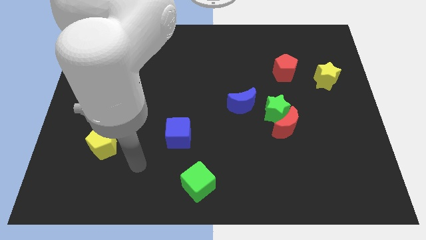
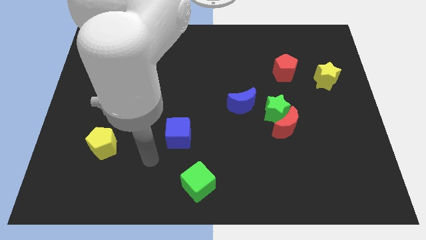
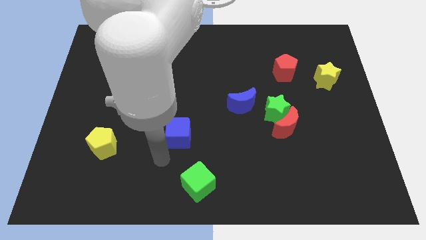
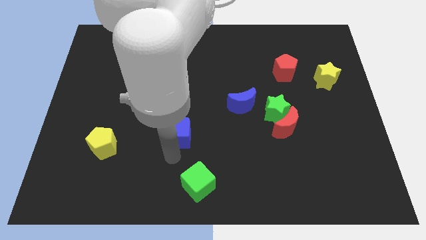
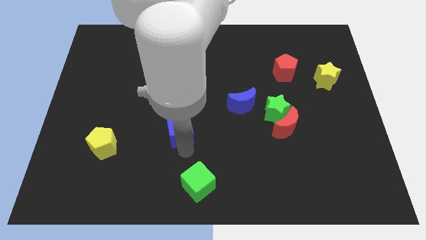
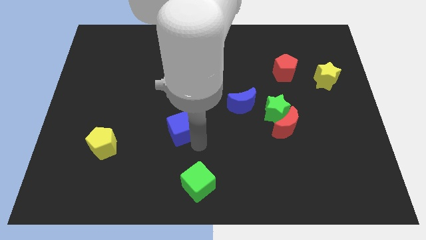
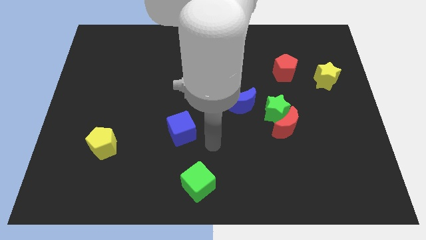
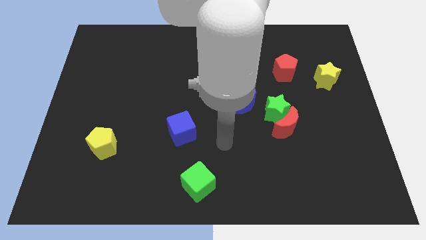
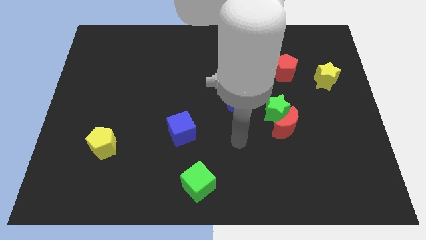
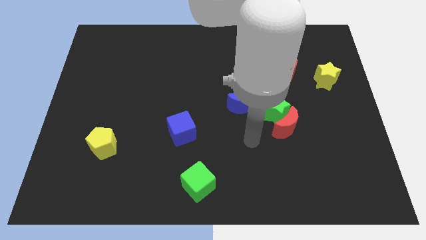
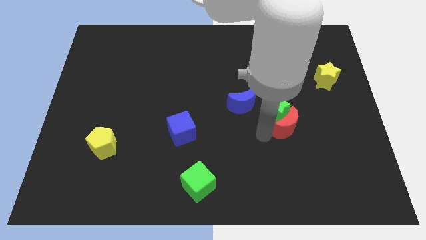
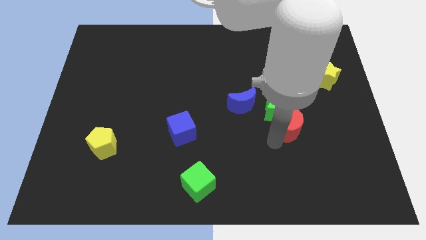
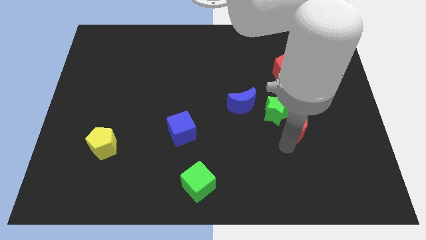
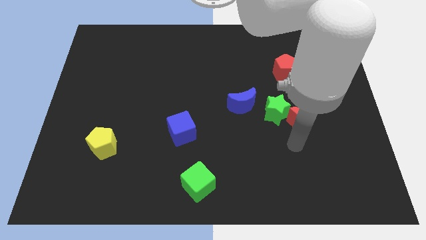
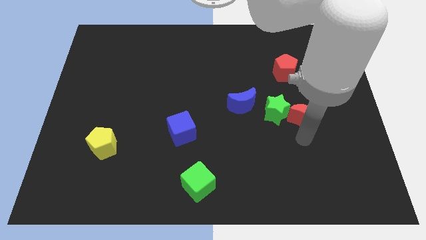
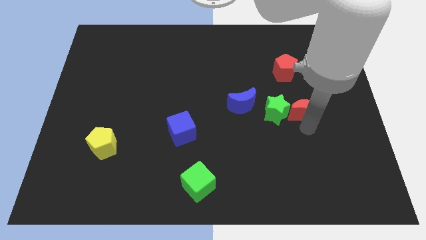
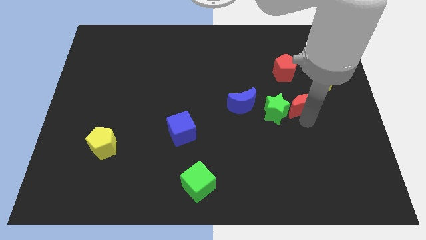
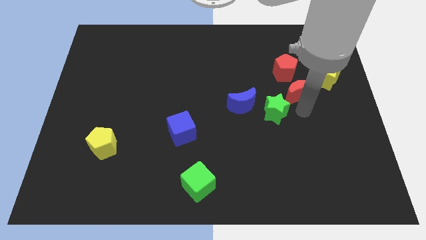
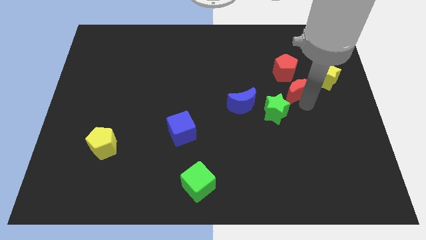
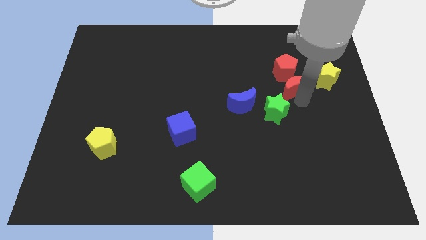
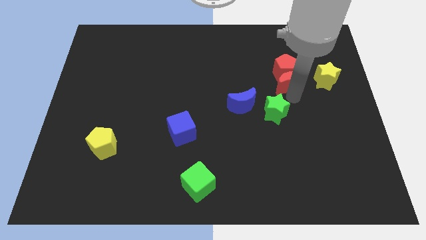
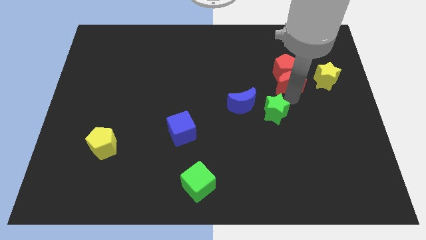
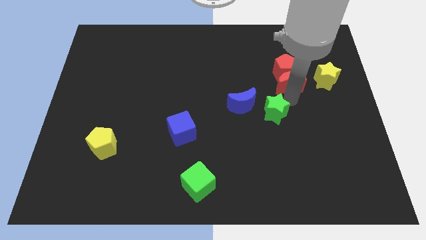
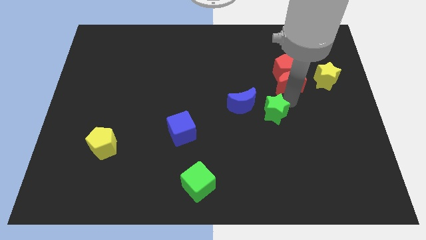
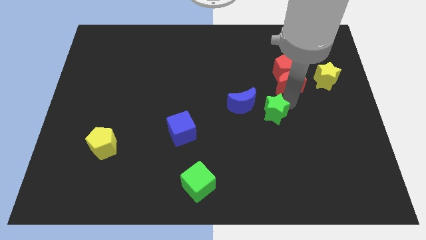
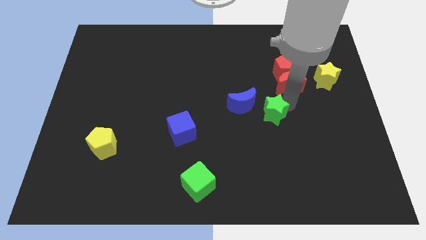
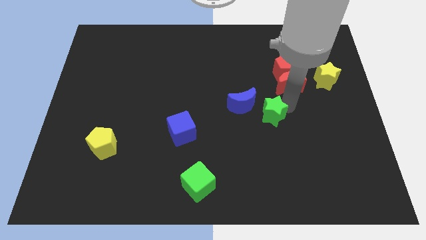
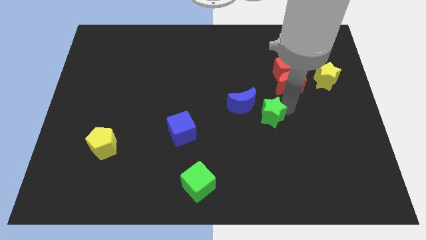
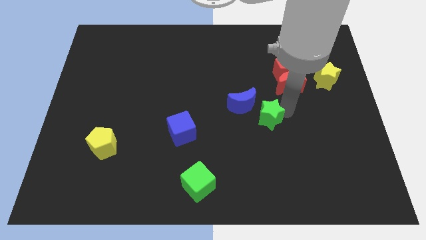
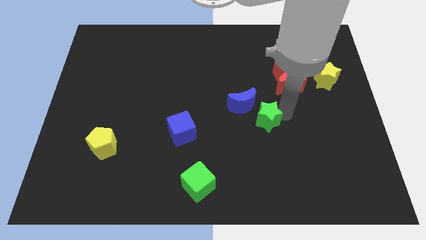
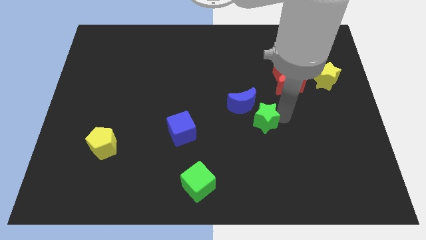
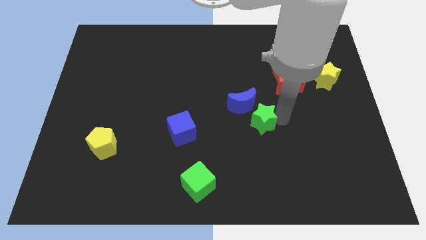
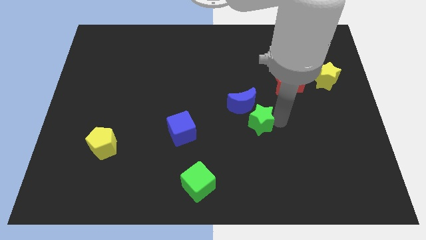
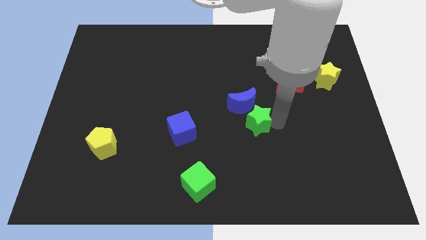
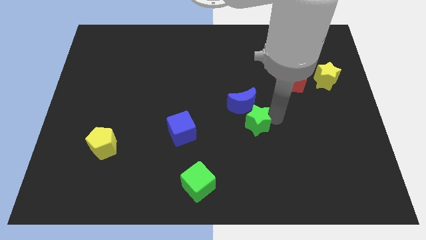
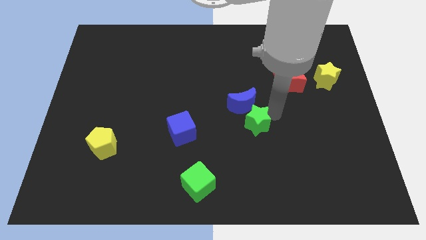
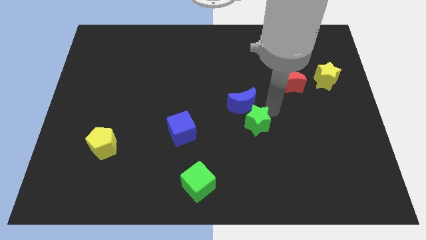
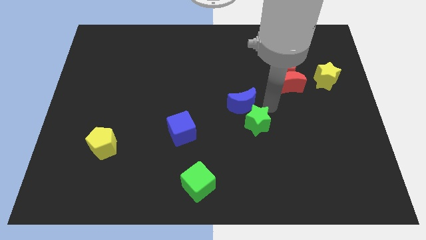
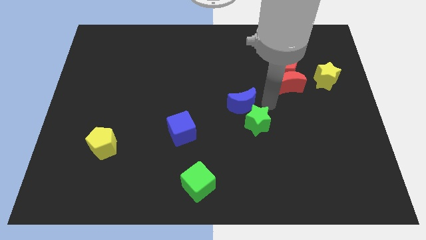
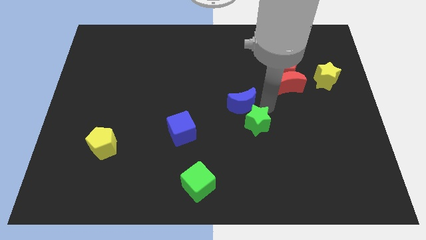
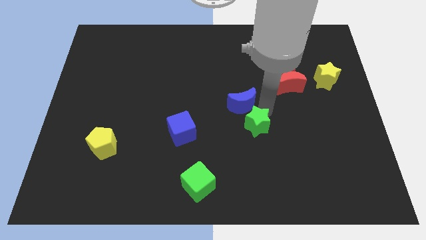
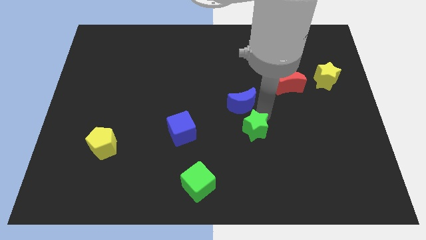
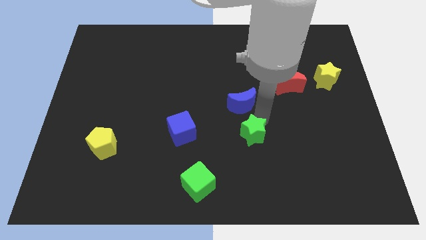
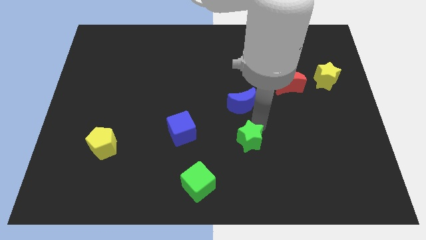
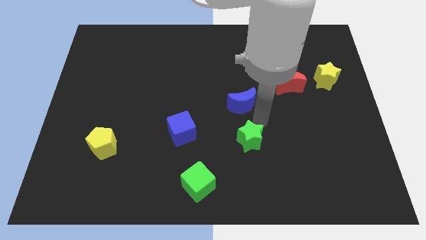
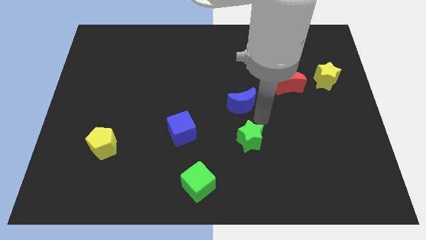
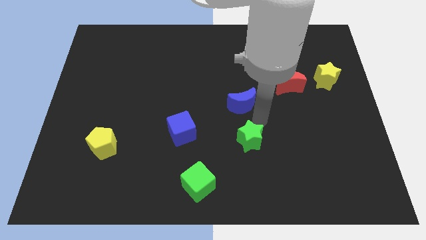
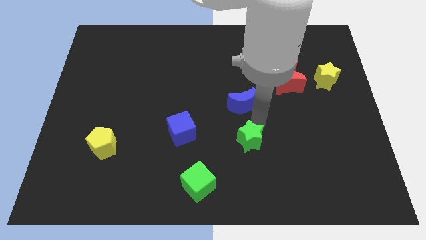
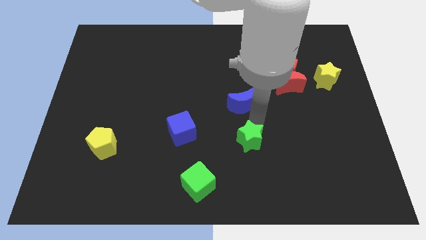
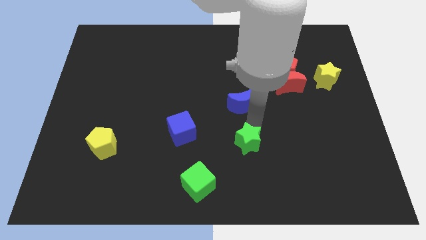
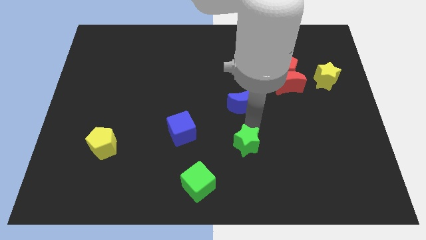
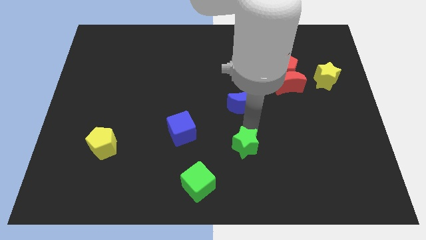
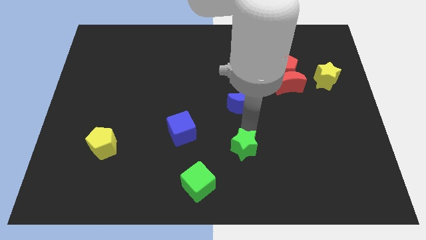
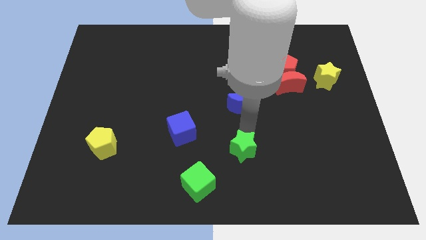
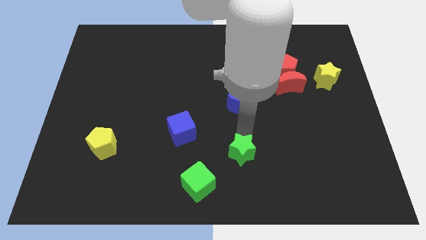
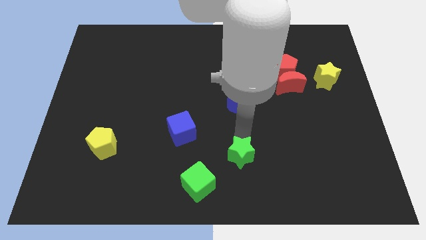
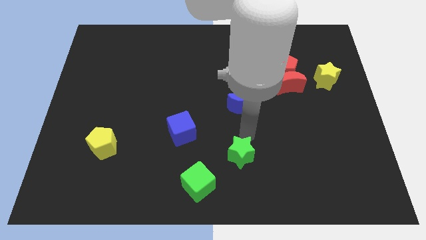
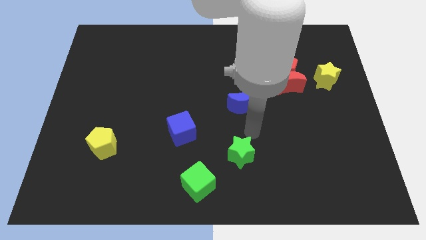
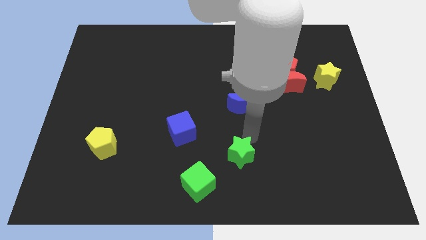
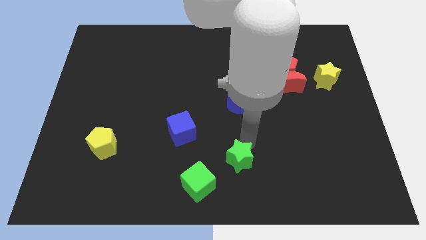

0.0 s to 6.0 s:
move the green star to the bottom
